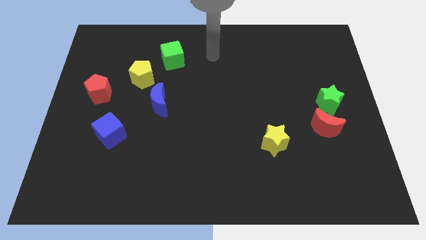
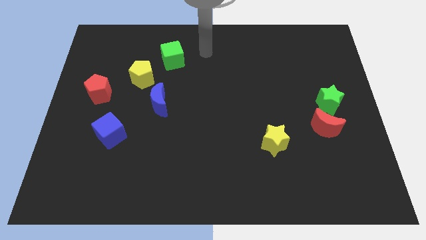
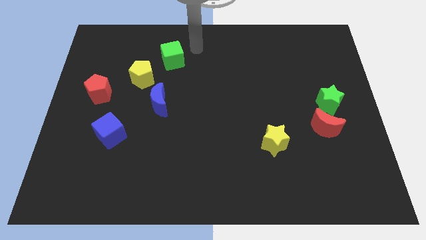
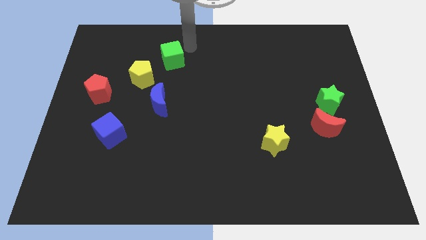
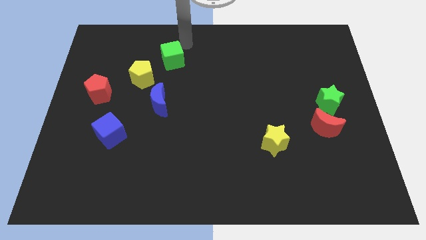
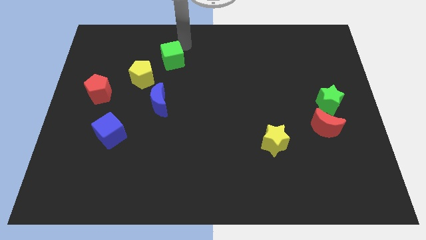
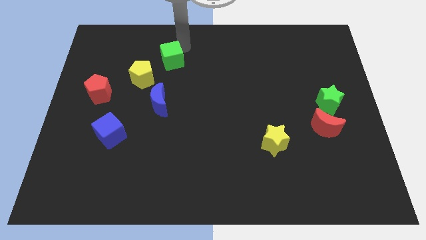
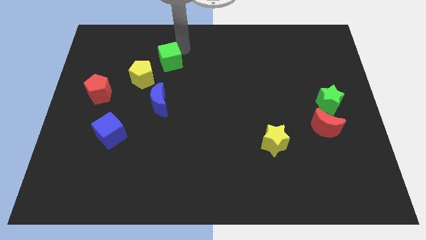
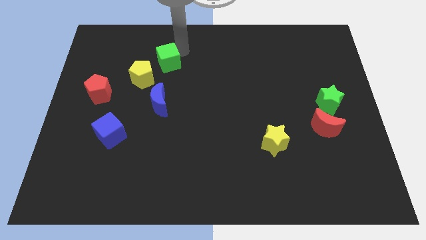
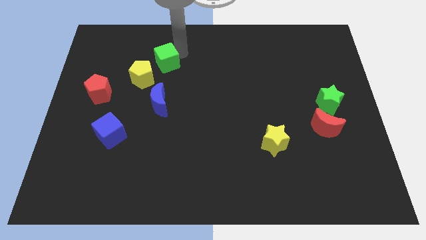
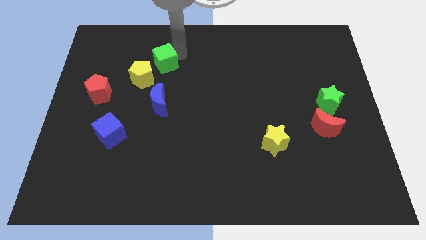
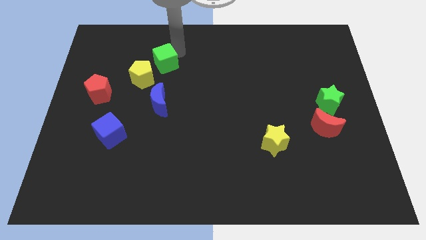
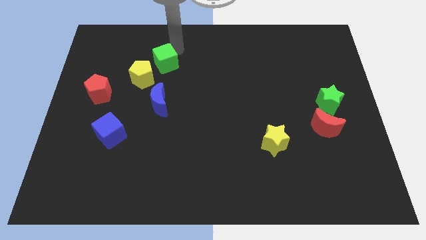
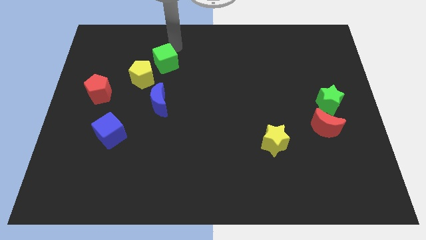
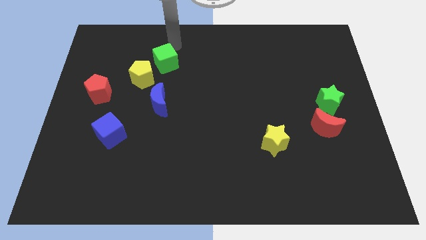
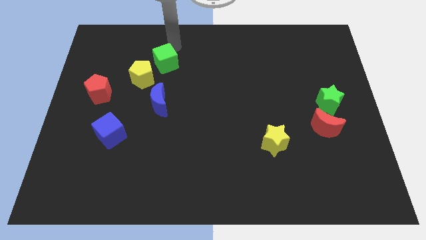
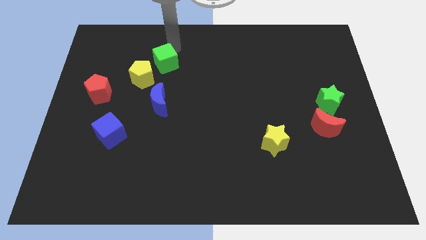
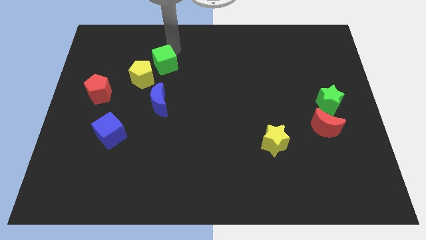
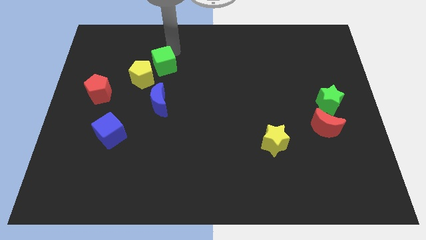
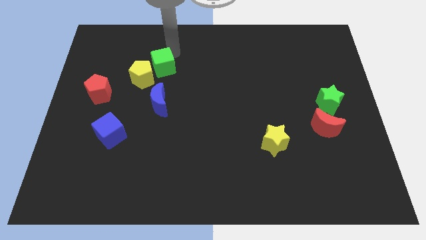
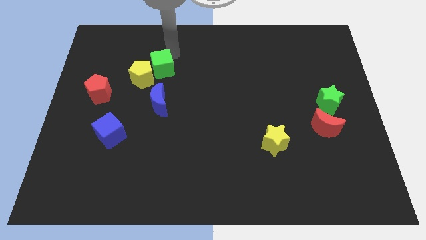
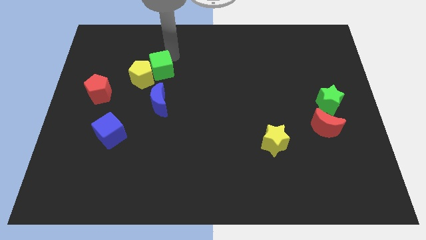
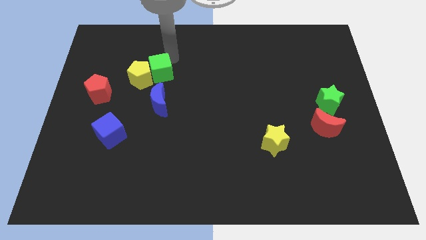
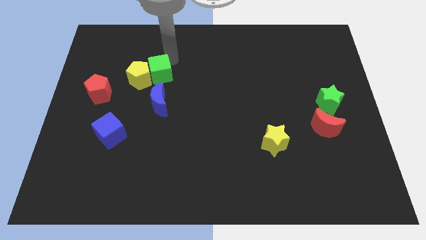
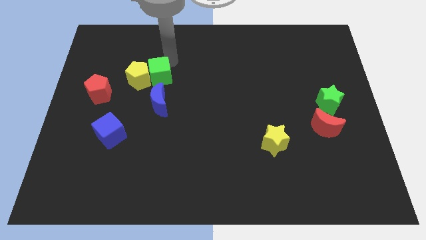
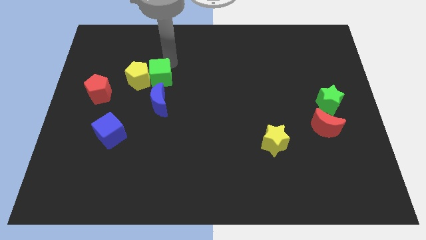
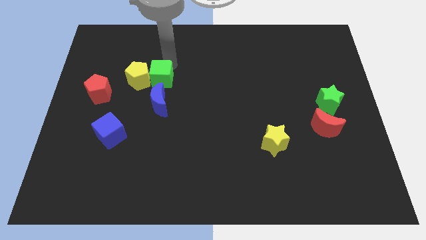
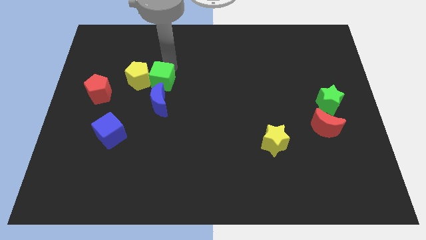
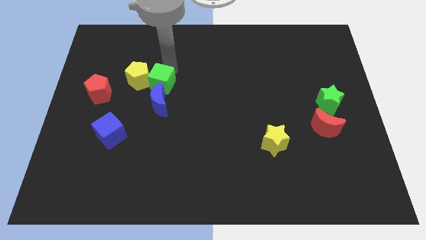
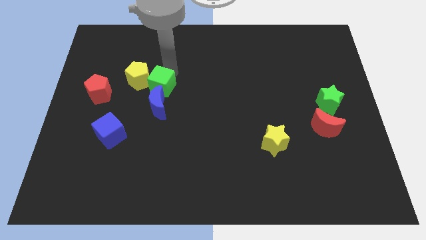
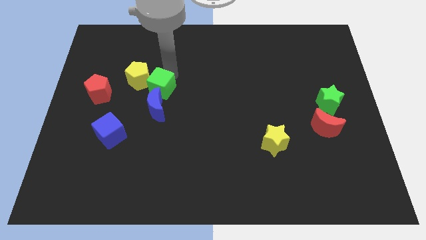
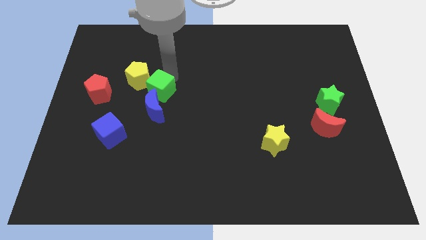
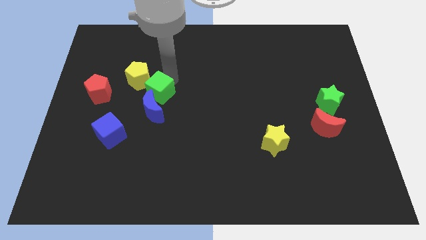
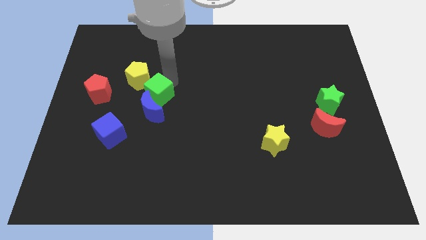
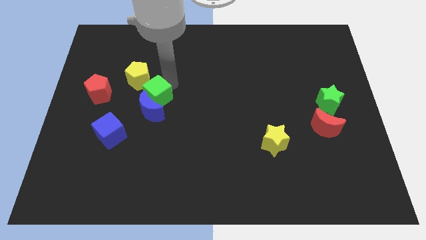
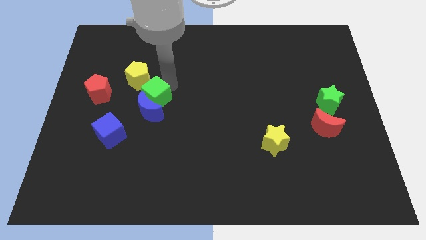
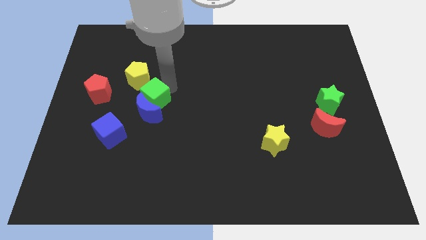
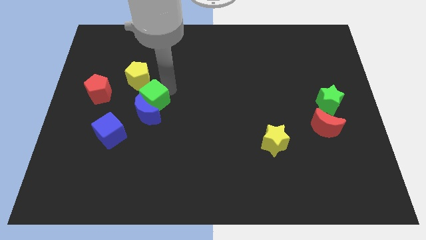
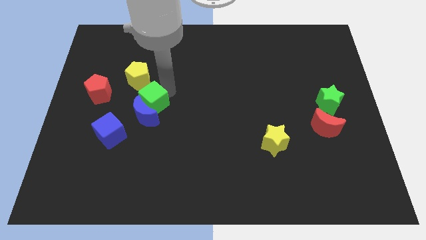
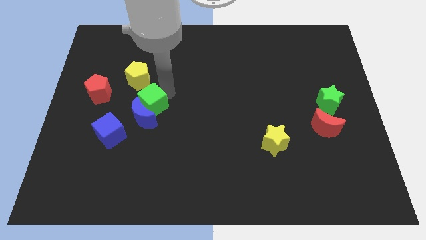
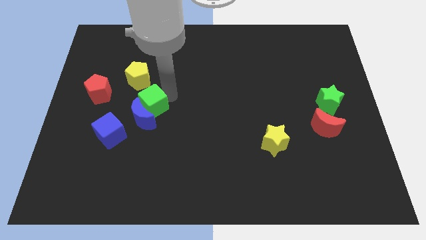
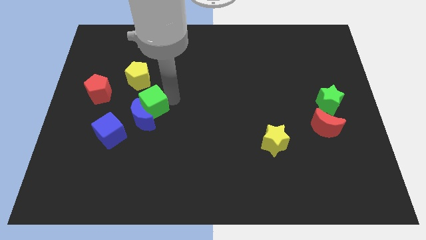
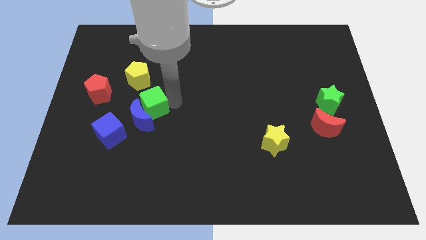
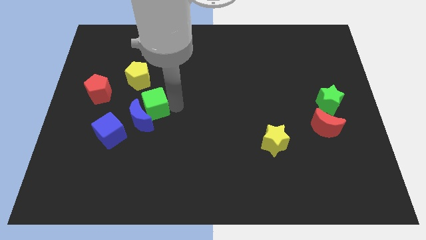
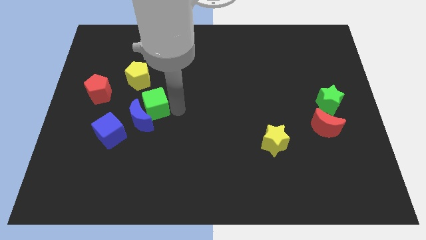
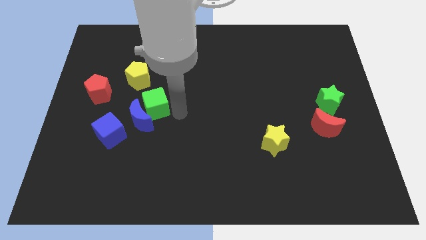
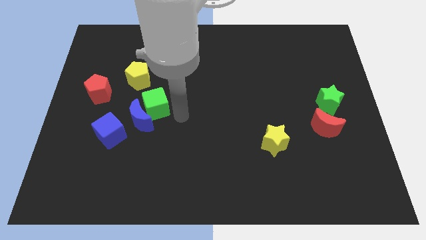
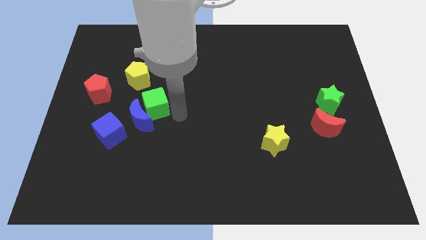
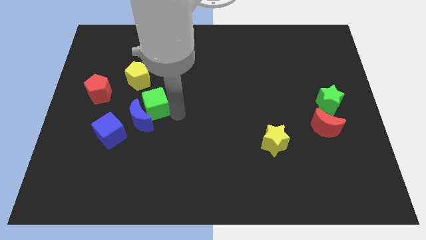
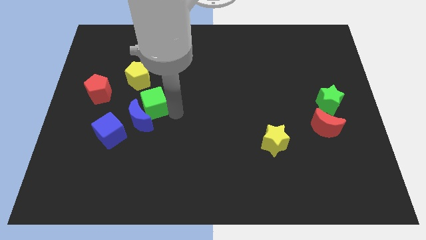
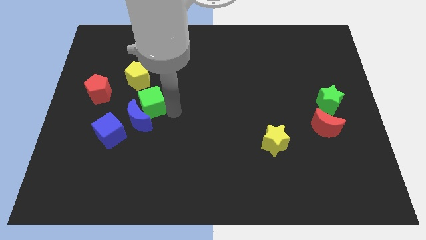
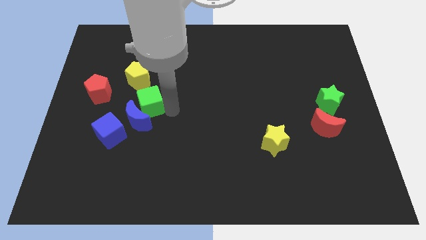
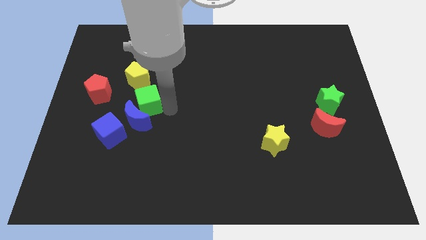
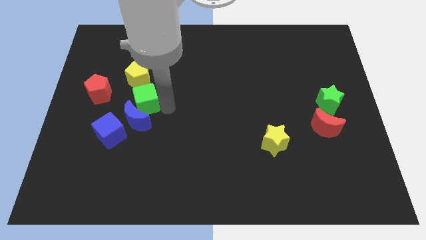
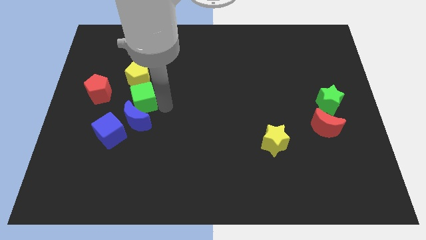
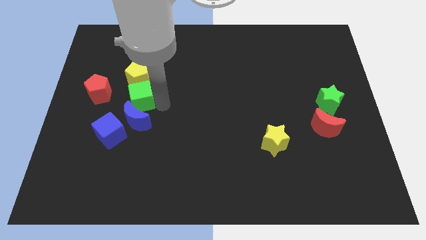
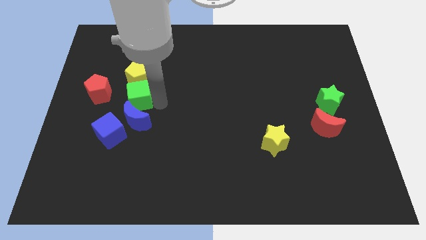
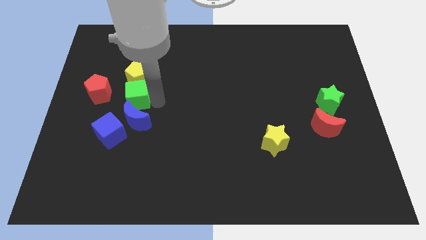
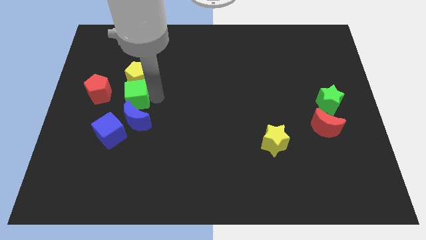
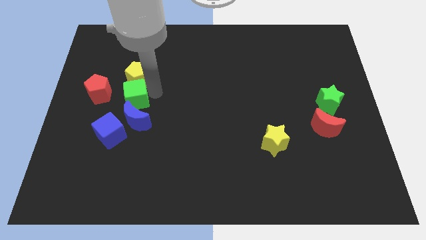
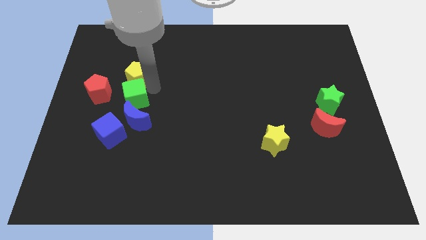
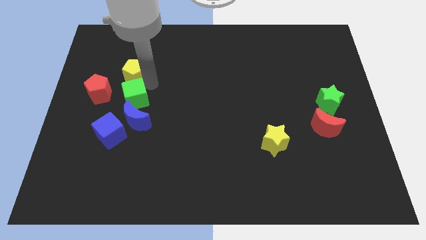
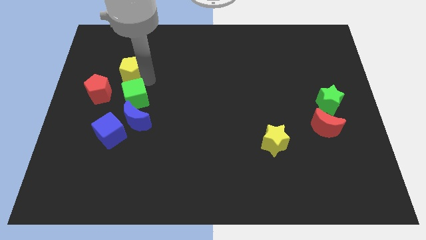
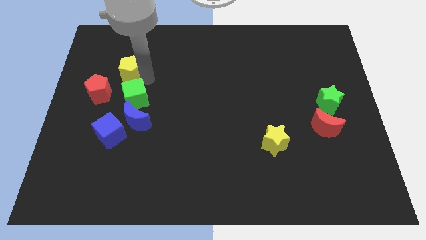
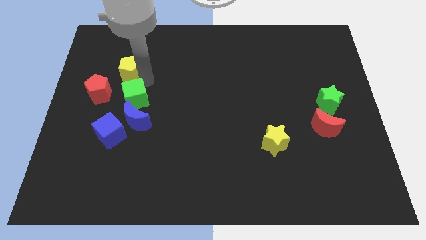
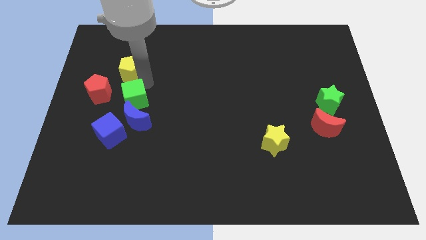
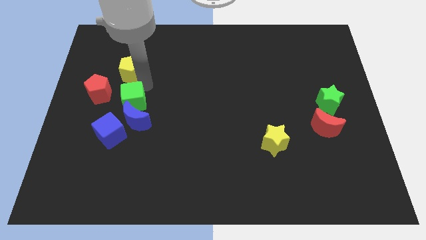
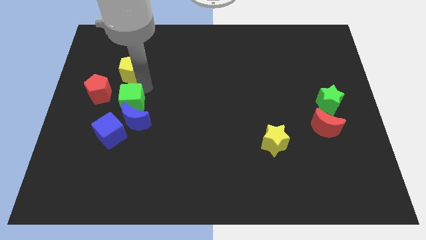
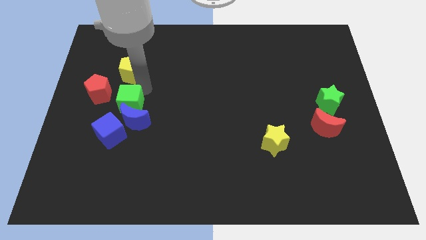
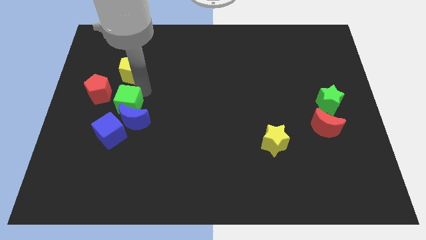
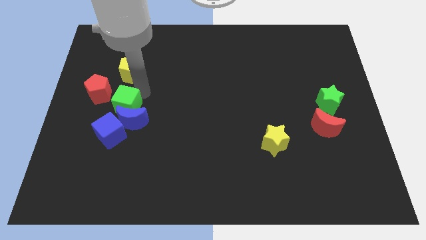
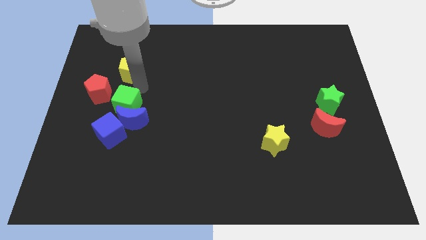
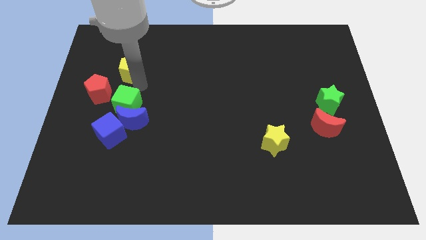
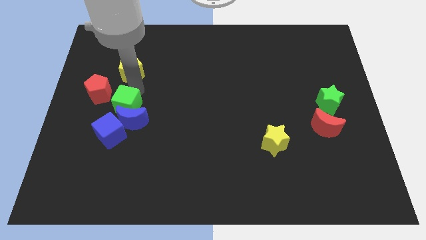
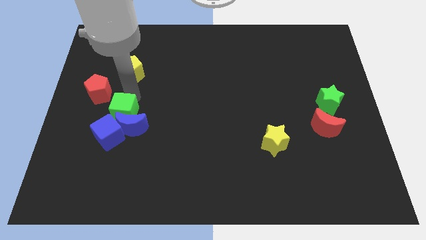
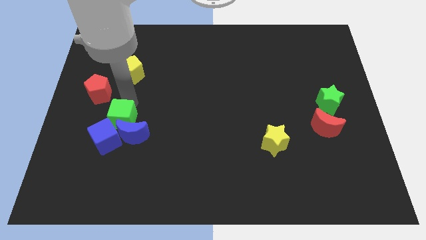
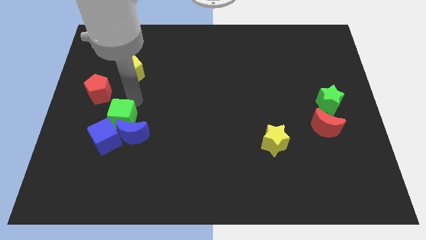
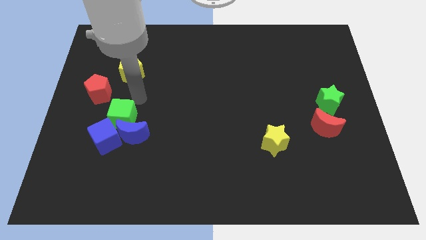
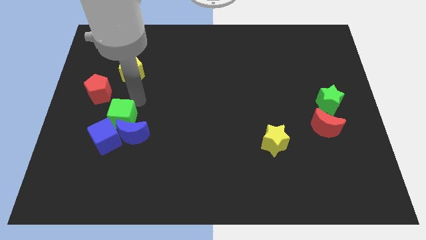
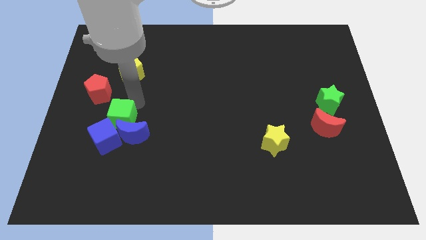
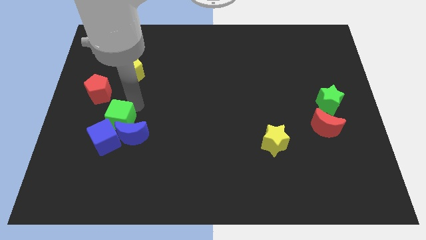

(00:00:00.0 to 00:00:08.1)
move the green cube next to the blue cube
